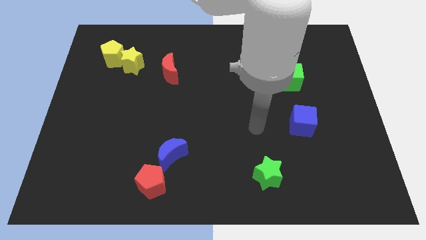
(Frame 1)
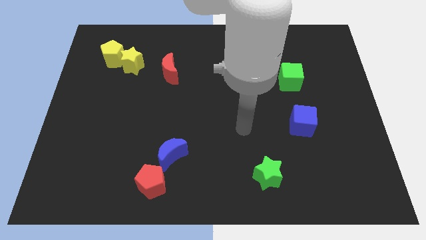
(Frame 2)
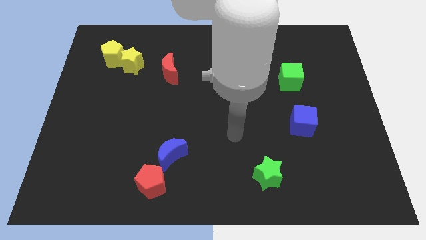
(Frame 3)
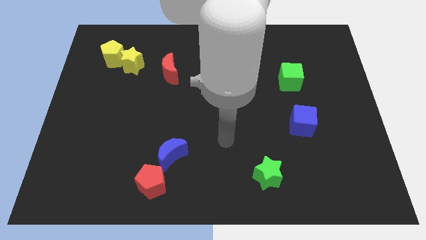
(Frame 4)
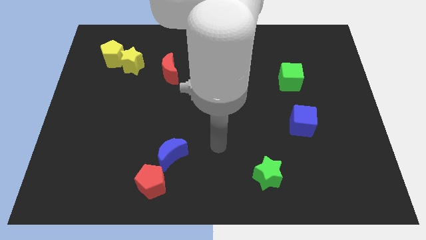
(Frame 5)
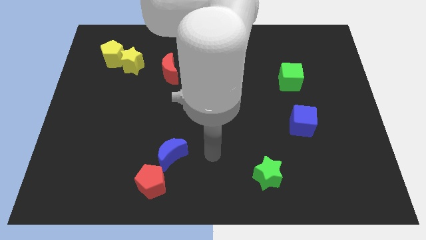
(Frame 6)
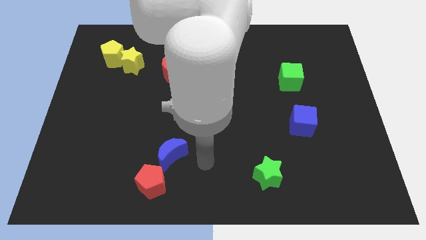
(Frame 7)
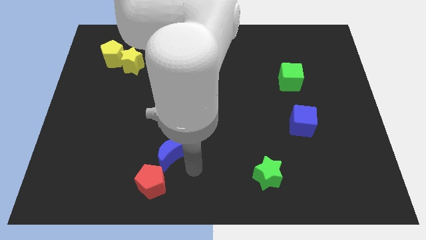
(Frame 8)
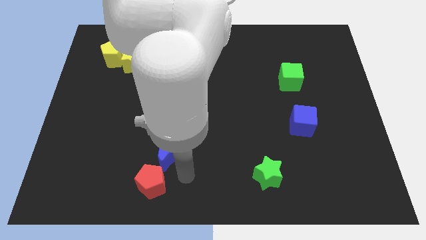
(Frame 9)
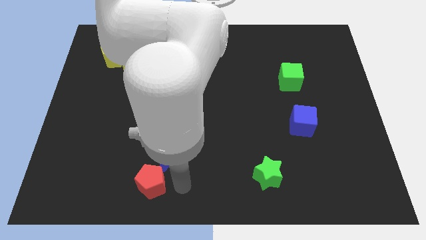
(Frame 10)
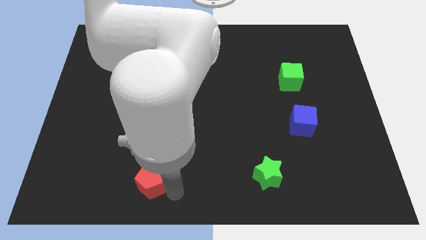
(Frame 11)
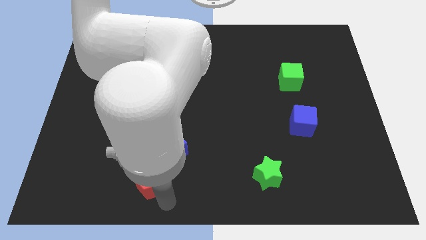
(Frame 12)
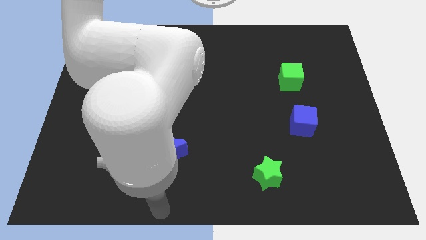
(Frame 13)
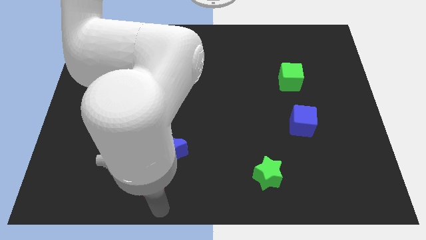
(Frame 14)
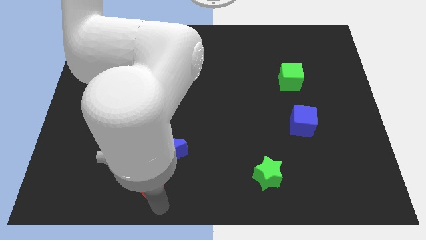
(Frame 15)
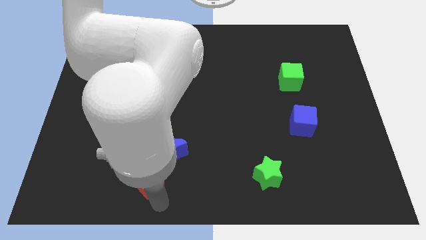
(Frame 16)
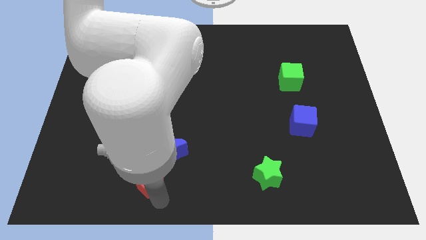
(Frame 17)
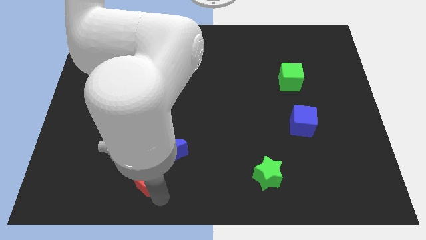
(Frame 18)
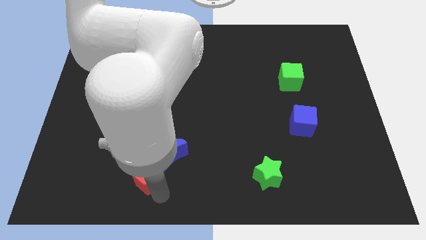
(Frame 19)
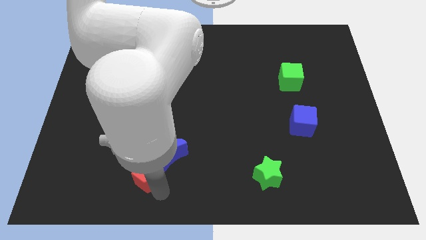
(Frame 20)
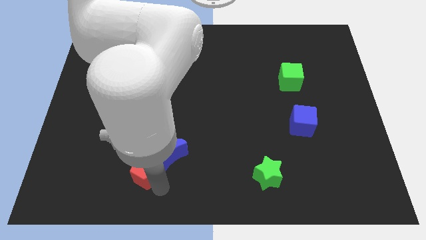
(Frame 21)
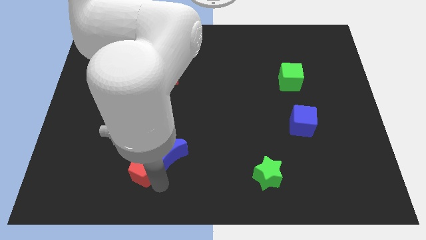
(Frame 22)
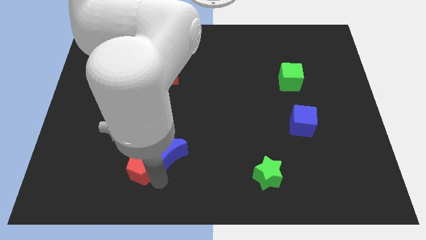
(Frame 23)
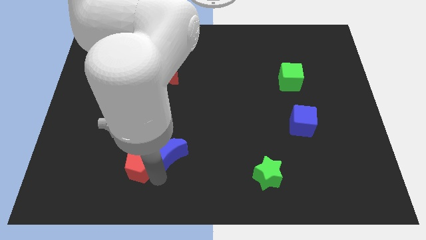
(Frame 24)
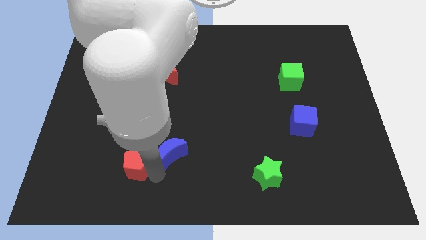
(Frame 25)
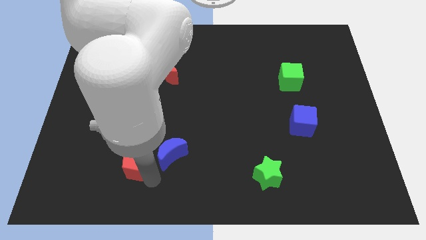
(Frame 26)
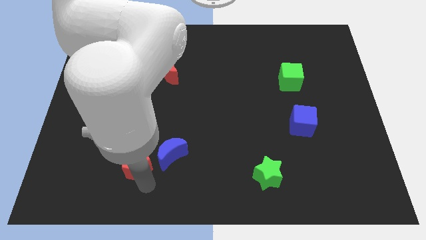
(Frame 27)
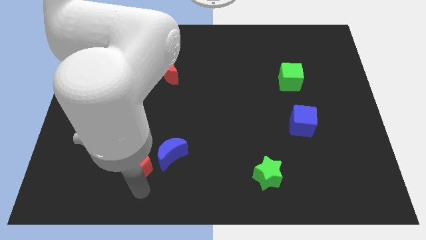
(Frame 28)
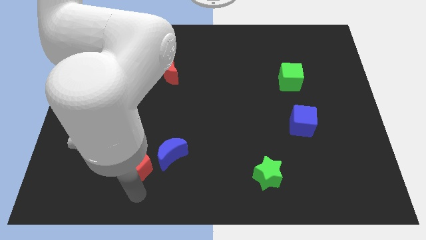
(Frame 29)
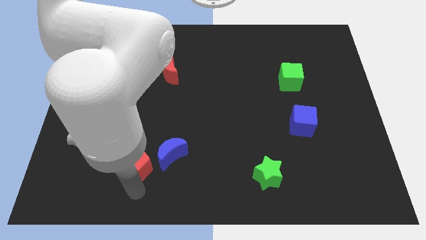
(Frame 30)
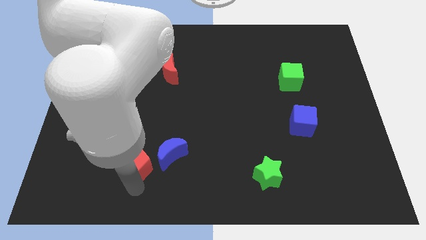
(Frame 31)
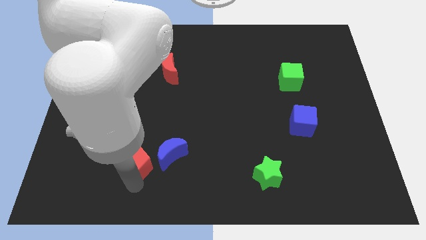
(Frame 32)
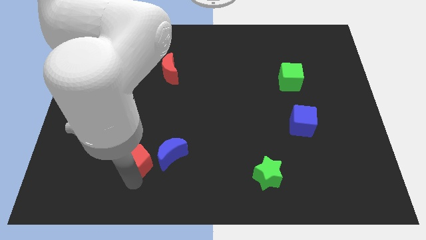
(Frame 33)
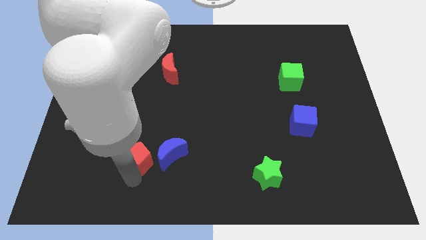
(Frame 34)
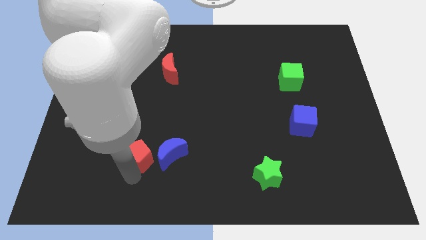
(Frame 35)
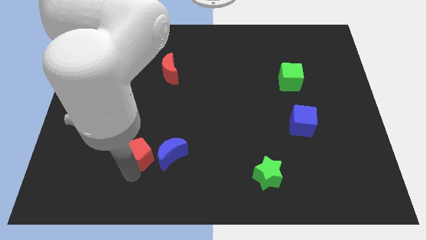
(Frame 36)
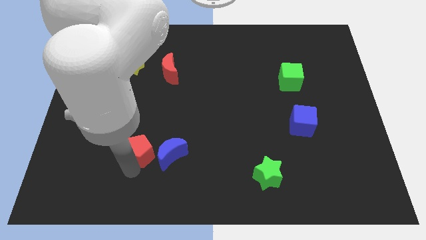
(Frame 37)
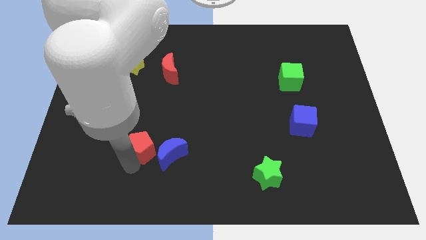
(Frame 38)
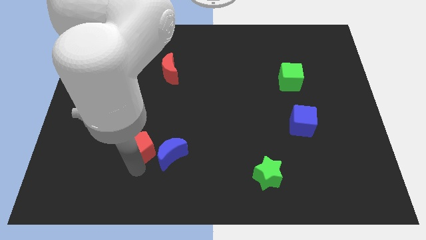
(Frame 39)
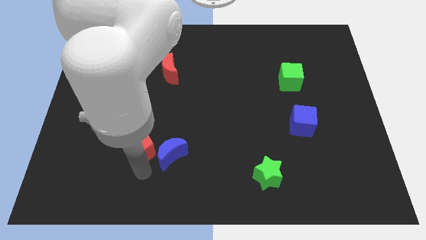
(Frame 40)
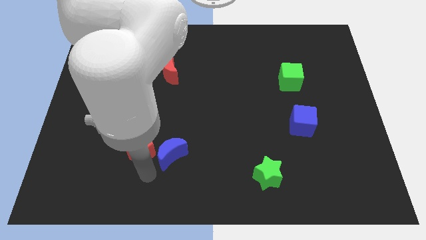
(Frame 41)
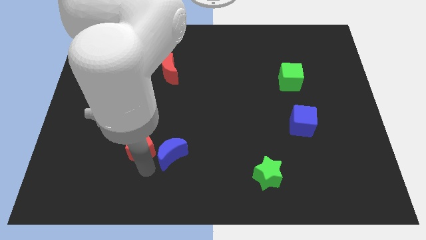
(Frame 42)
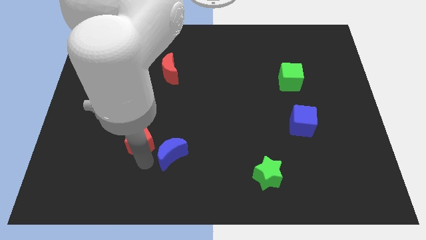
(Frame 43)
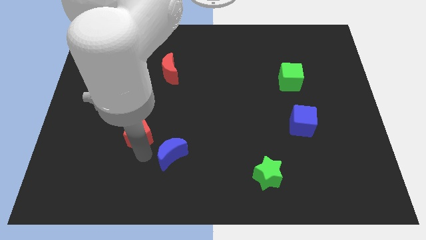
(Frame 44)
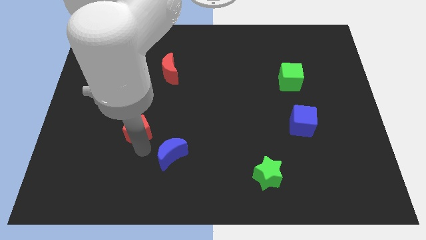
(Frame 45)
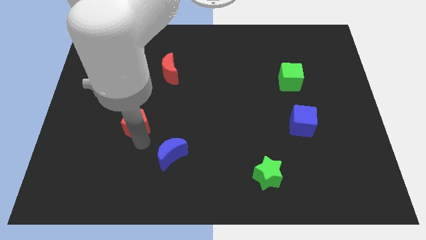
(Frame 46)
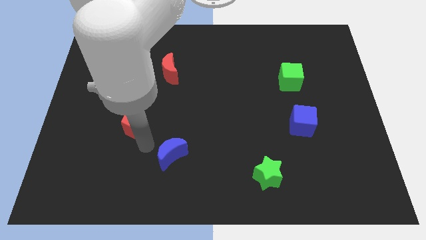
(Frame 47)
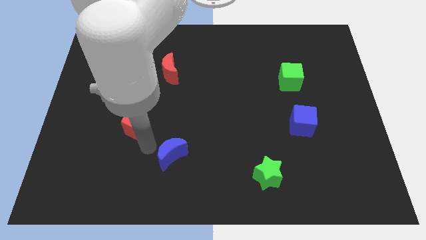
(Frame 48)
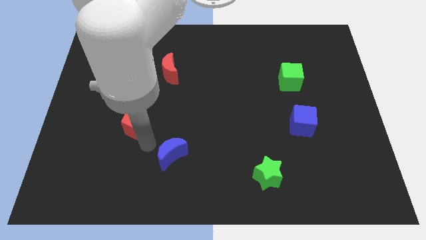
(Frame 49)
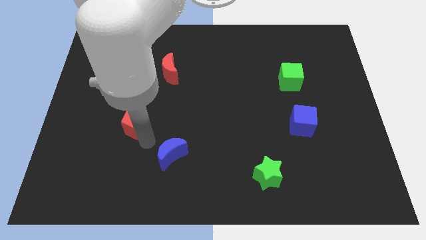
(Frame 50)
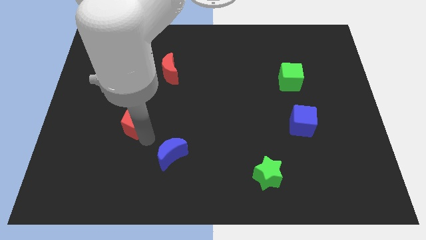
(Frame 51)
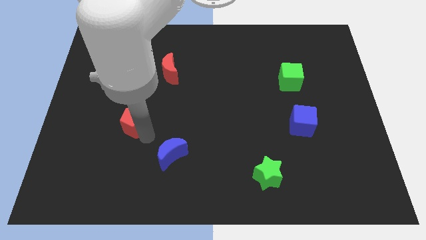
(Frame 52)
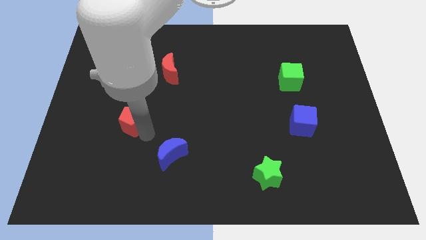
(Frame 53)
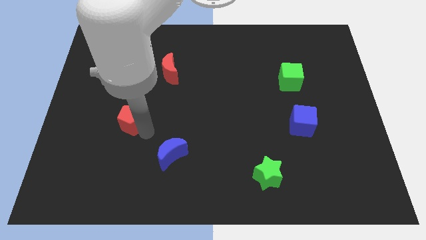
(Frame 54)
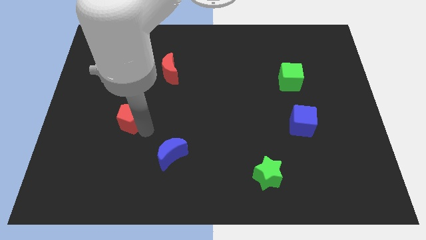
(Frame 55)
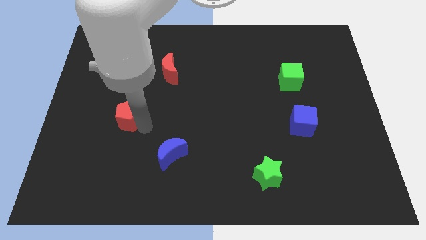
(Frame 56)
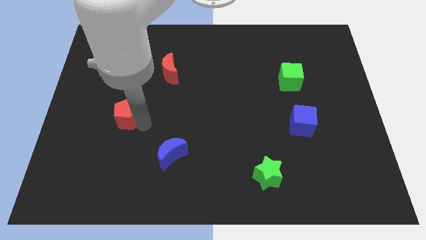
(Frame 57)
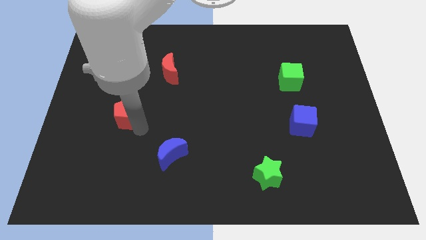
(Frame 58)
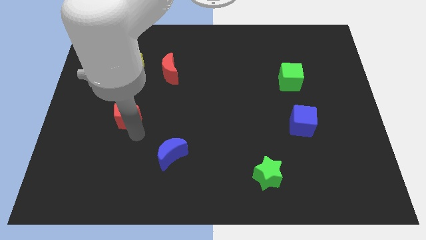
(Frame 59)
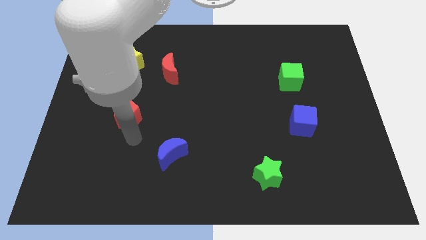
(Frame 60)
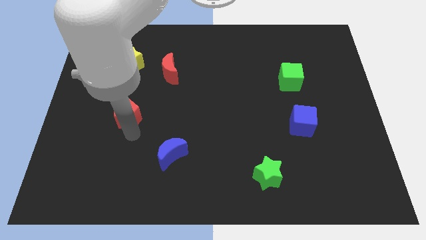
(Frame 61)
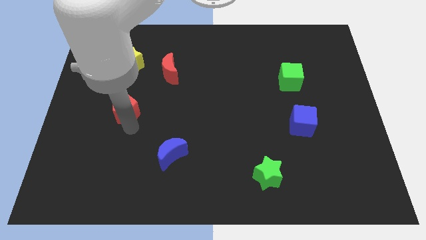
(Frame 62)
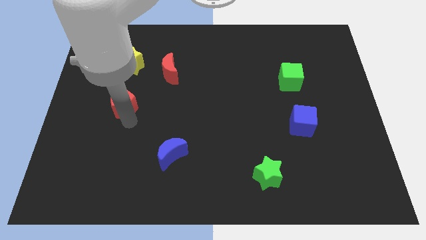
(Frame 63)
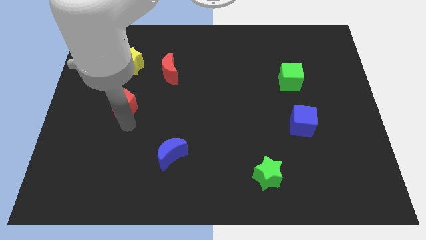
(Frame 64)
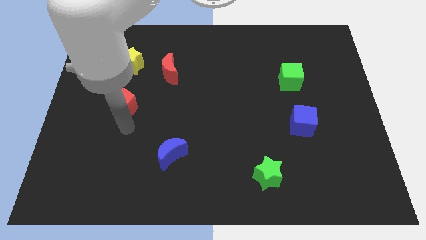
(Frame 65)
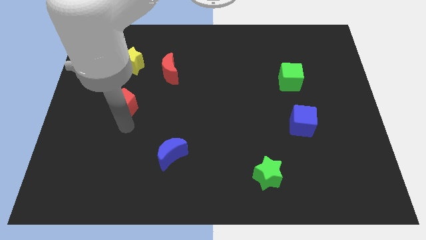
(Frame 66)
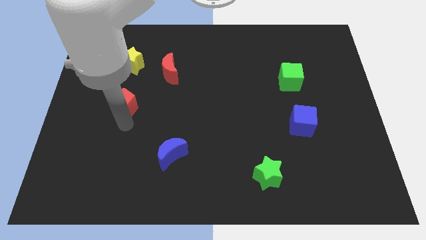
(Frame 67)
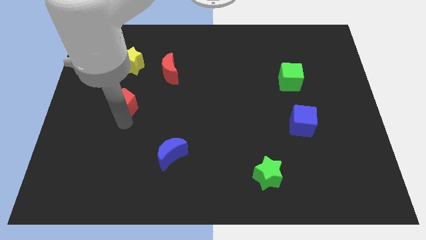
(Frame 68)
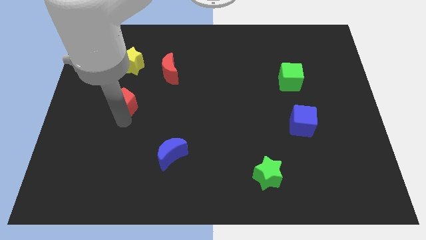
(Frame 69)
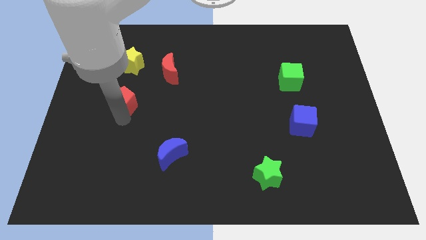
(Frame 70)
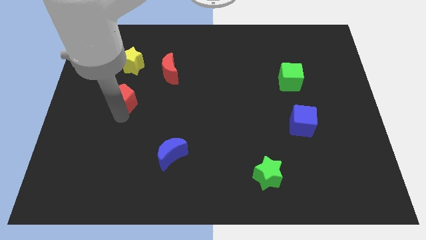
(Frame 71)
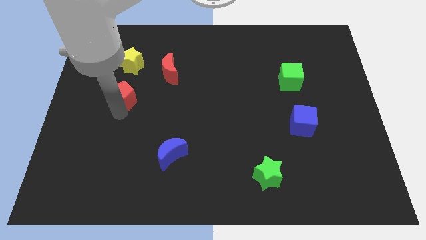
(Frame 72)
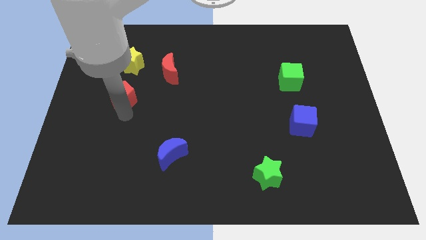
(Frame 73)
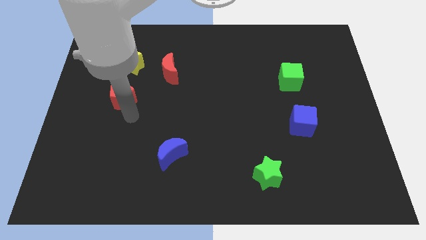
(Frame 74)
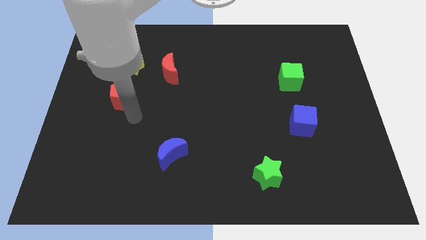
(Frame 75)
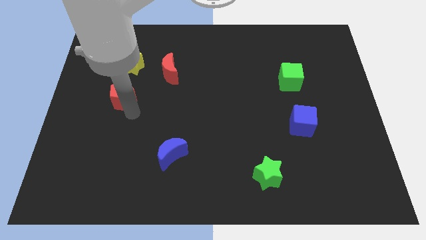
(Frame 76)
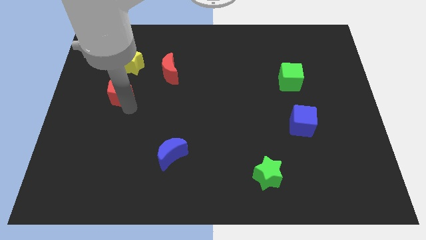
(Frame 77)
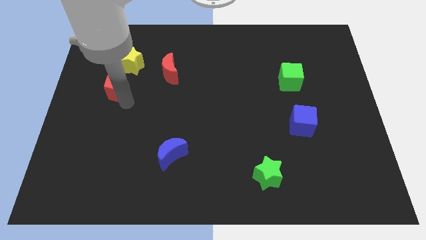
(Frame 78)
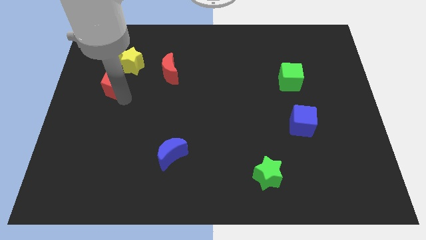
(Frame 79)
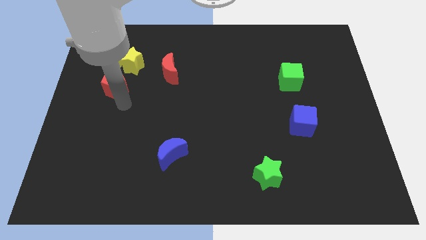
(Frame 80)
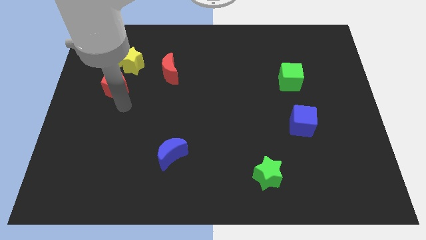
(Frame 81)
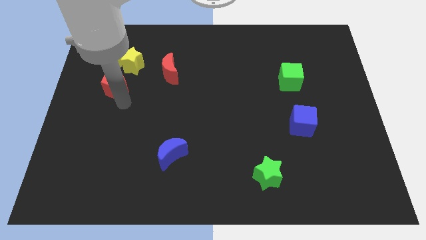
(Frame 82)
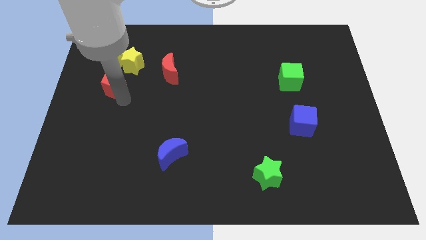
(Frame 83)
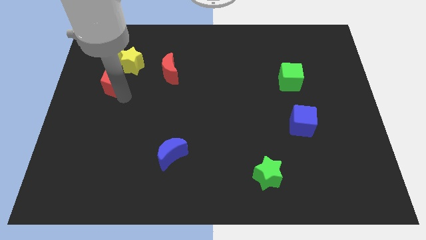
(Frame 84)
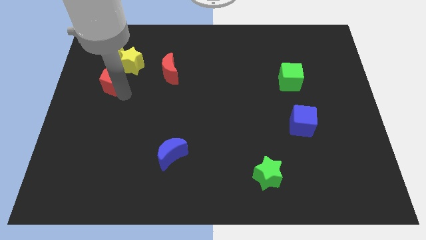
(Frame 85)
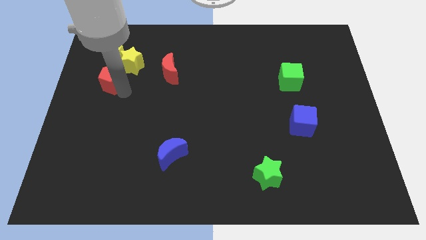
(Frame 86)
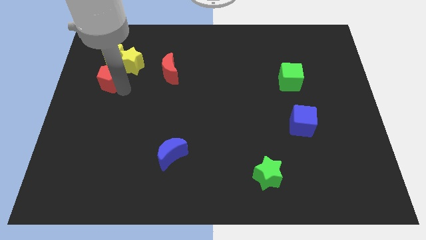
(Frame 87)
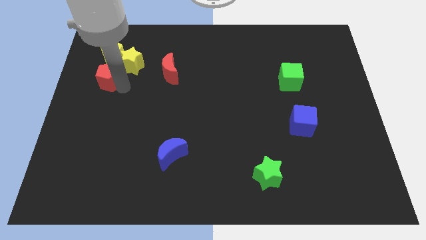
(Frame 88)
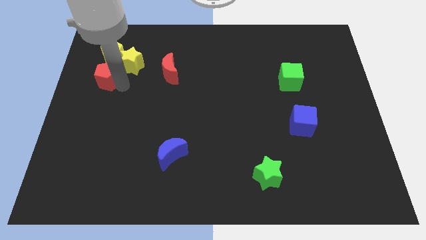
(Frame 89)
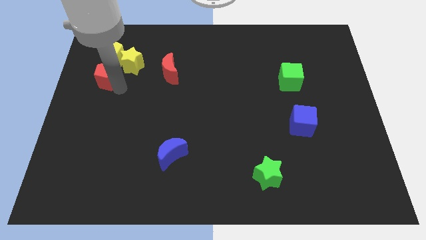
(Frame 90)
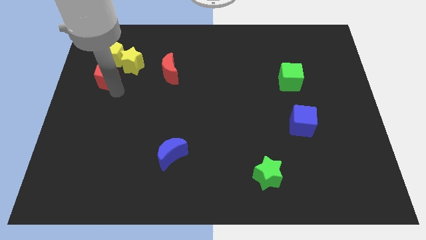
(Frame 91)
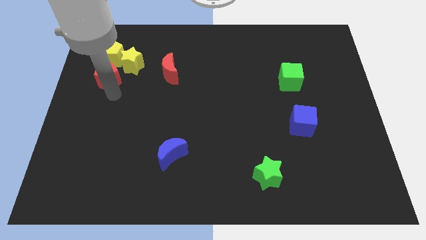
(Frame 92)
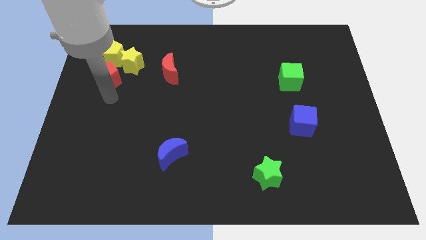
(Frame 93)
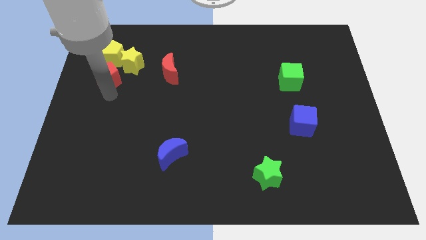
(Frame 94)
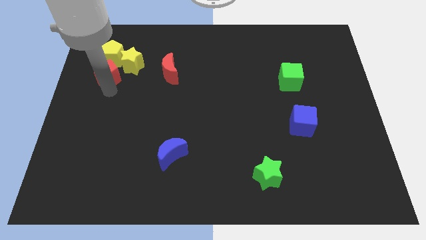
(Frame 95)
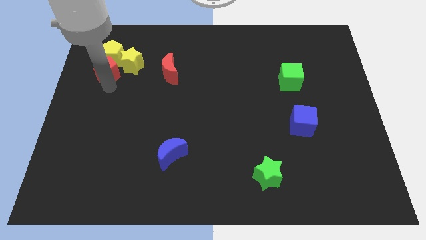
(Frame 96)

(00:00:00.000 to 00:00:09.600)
move the red pentagon next to the yellow pentagon
